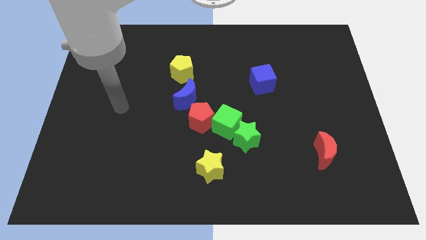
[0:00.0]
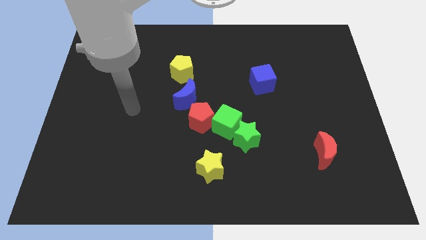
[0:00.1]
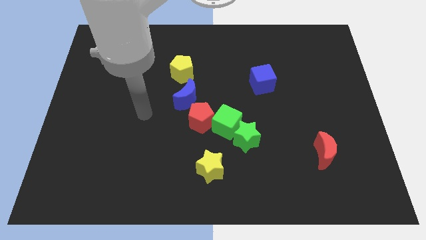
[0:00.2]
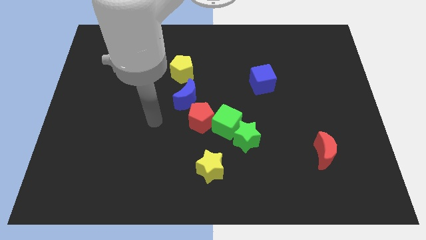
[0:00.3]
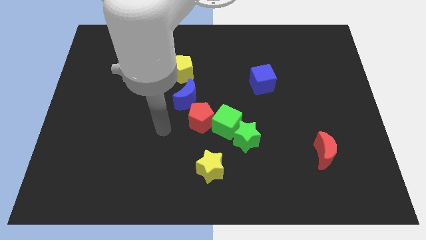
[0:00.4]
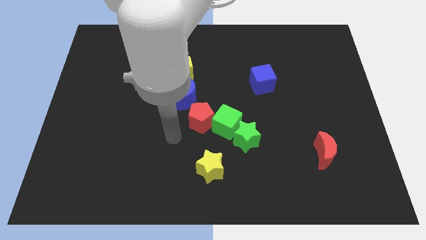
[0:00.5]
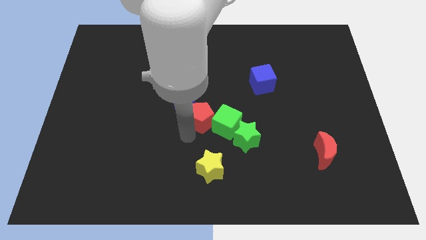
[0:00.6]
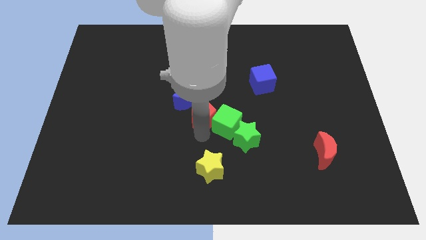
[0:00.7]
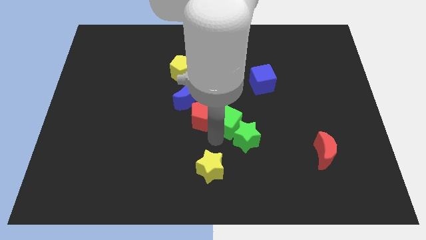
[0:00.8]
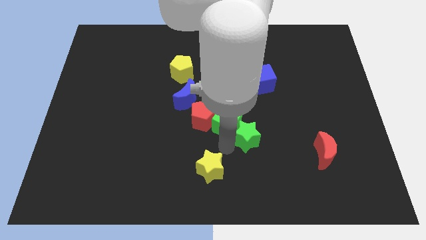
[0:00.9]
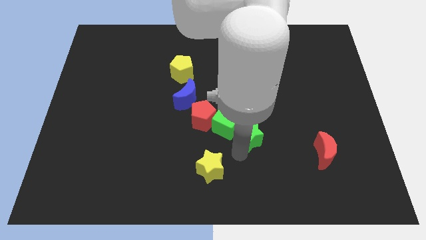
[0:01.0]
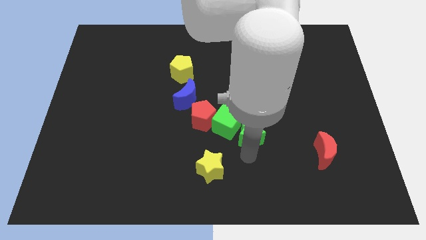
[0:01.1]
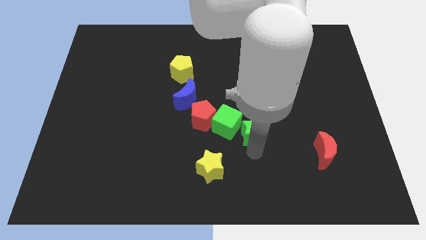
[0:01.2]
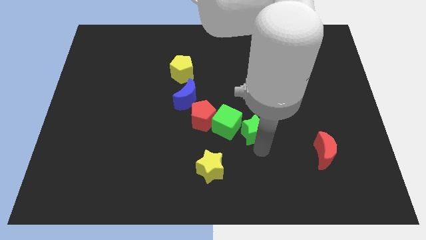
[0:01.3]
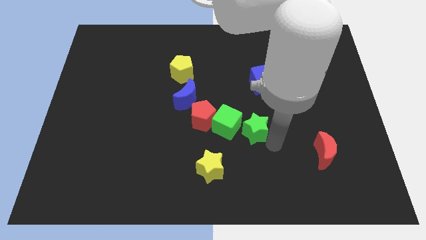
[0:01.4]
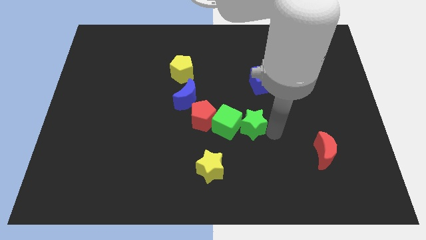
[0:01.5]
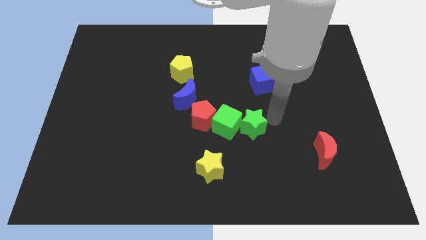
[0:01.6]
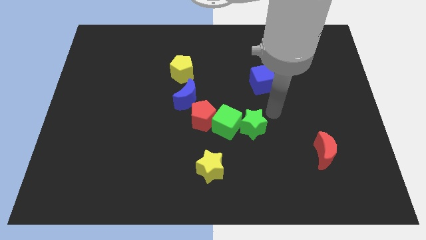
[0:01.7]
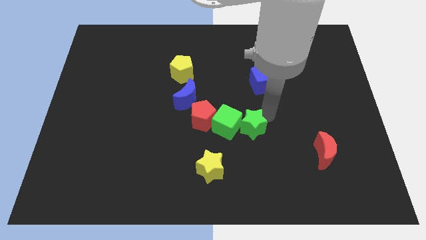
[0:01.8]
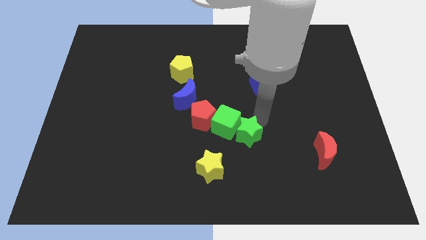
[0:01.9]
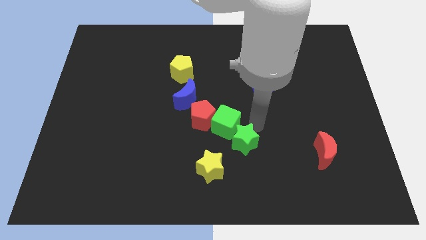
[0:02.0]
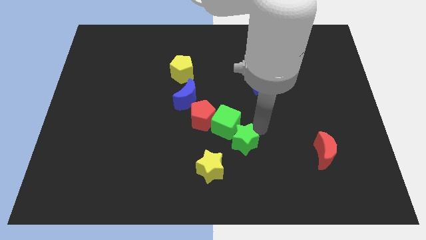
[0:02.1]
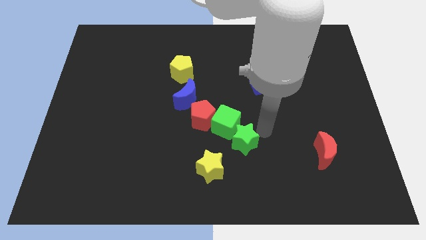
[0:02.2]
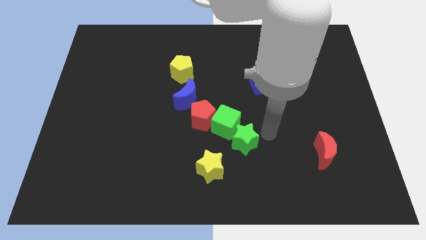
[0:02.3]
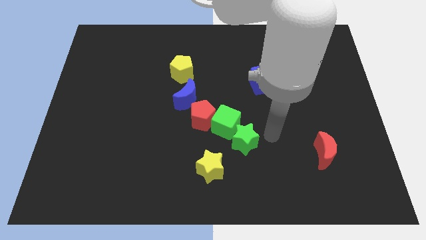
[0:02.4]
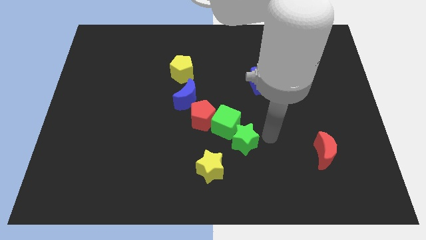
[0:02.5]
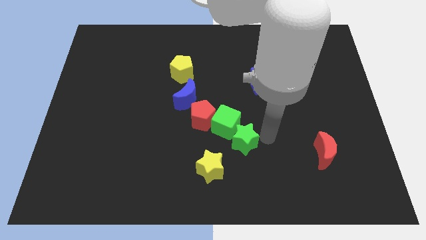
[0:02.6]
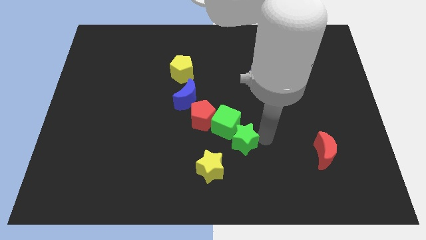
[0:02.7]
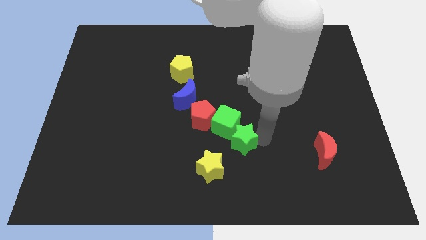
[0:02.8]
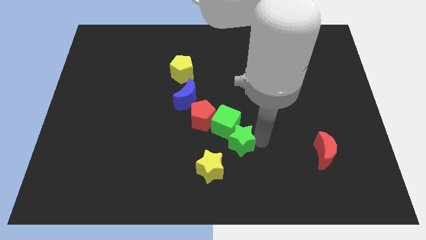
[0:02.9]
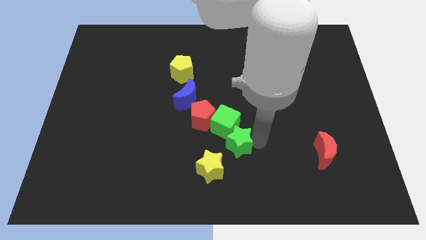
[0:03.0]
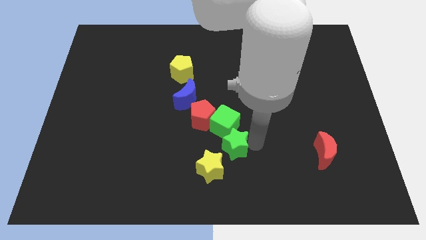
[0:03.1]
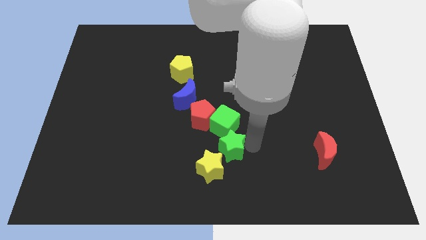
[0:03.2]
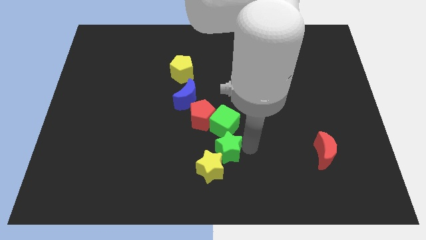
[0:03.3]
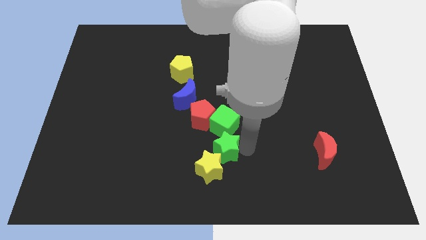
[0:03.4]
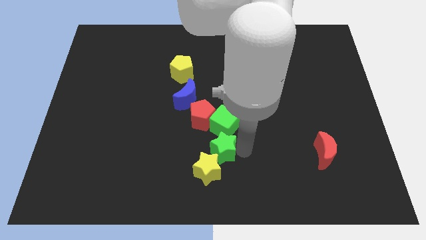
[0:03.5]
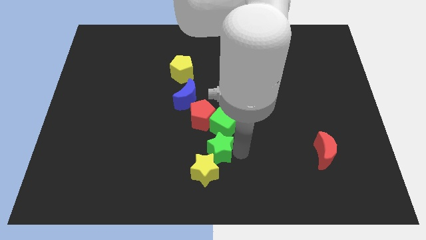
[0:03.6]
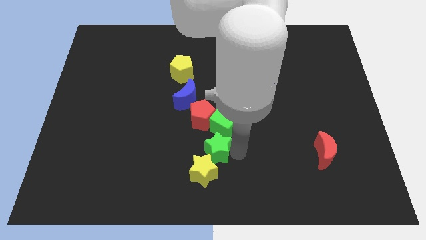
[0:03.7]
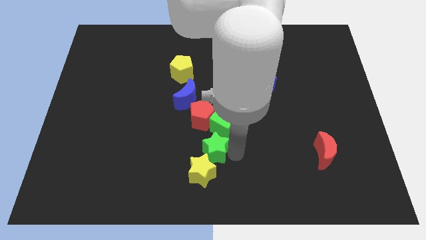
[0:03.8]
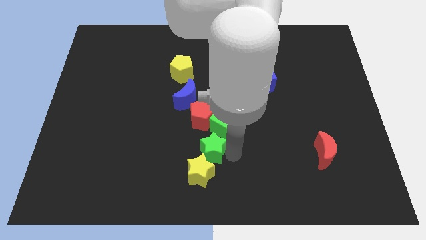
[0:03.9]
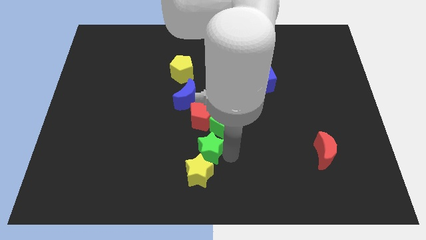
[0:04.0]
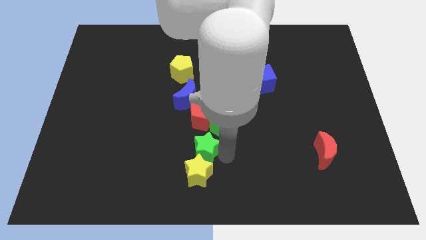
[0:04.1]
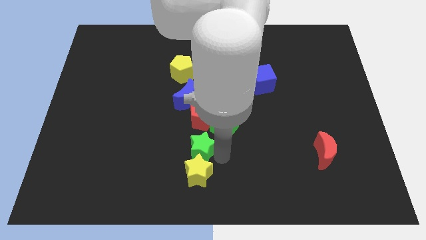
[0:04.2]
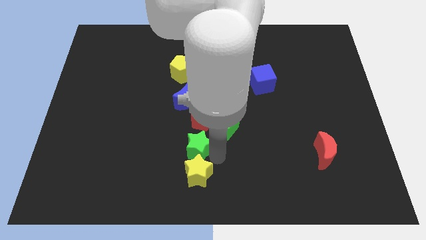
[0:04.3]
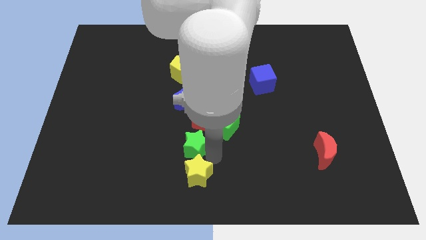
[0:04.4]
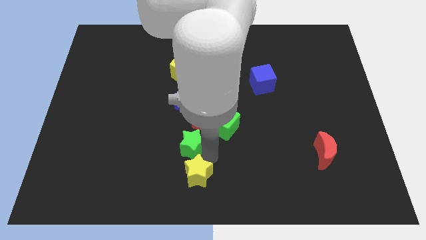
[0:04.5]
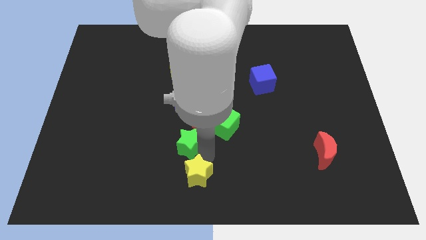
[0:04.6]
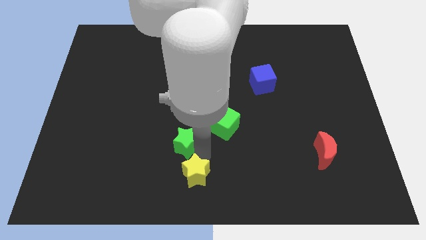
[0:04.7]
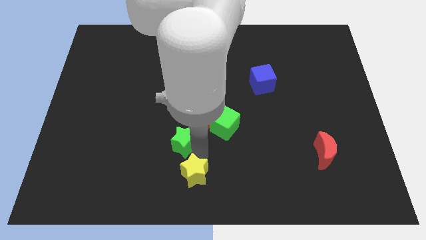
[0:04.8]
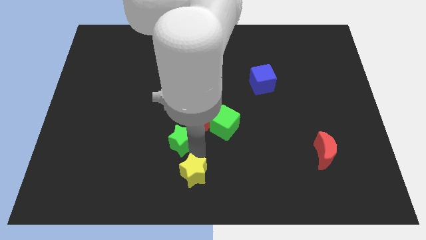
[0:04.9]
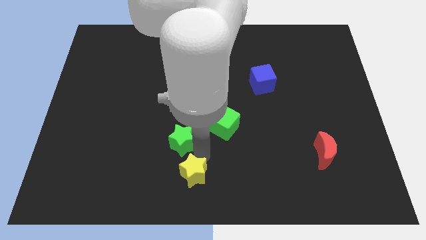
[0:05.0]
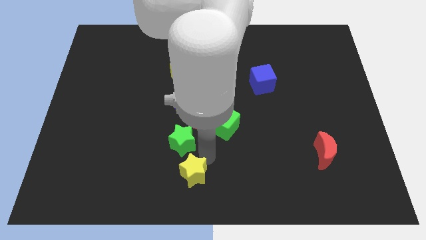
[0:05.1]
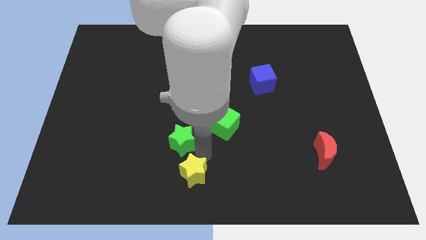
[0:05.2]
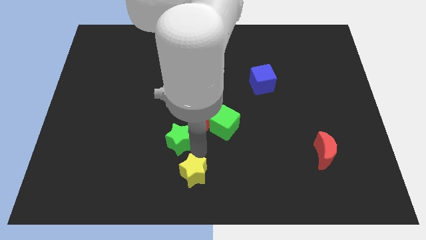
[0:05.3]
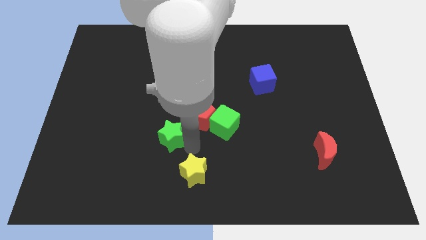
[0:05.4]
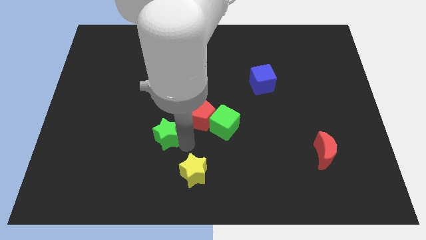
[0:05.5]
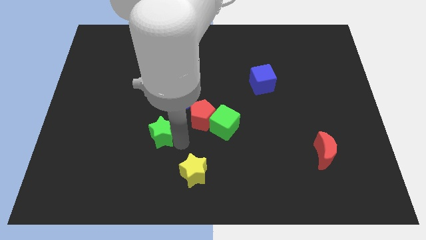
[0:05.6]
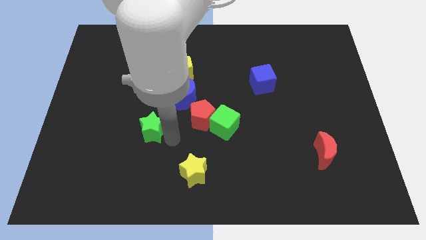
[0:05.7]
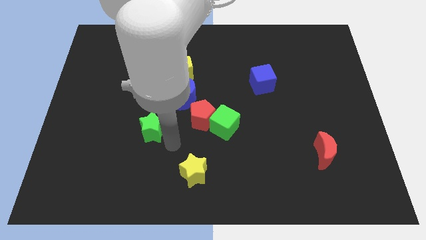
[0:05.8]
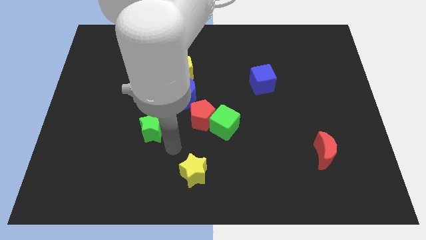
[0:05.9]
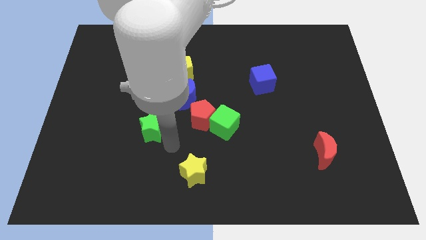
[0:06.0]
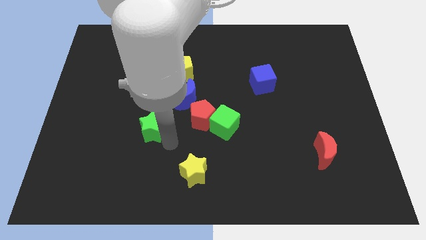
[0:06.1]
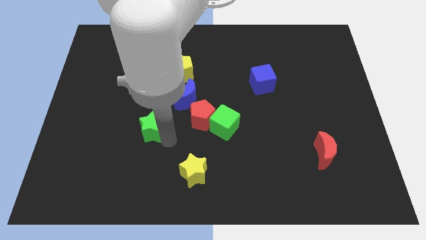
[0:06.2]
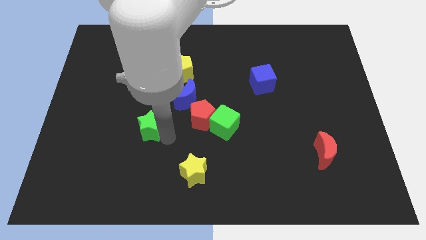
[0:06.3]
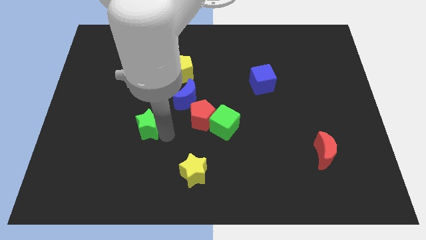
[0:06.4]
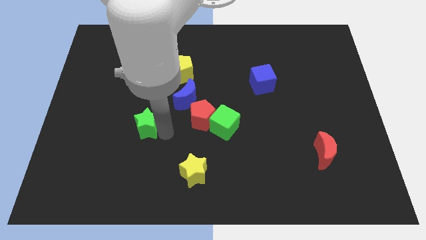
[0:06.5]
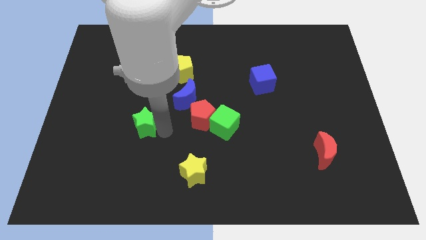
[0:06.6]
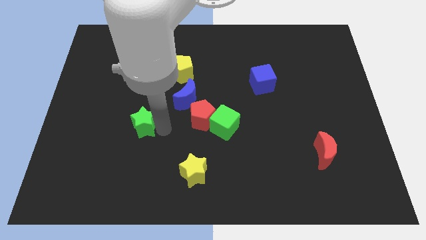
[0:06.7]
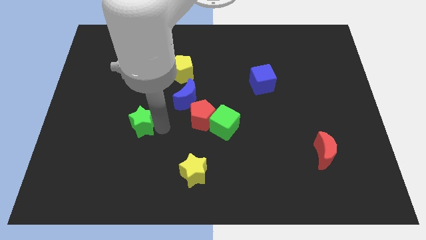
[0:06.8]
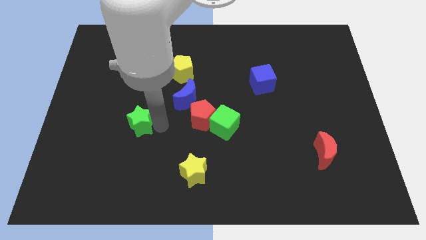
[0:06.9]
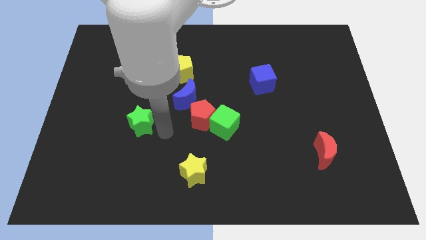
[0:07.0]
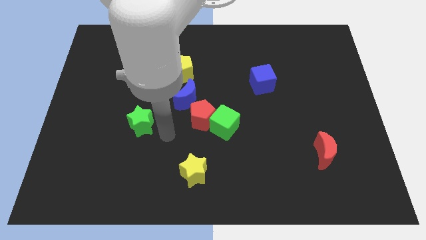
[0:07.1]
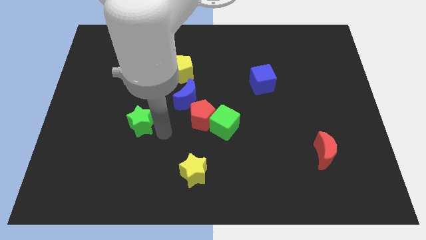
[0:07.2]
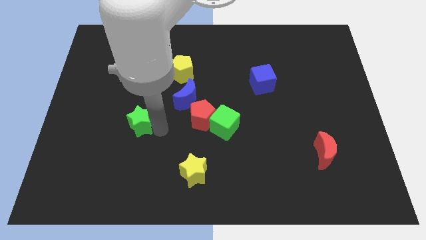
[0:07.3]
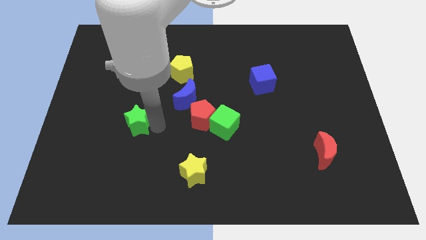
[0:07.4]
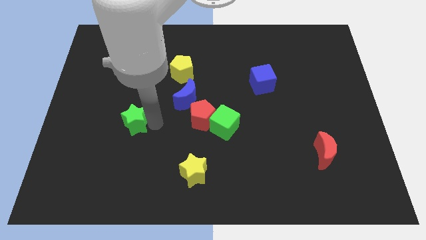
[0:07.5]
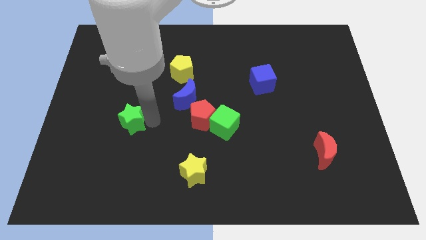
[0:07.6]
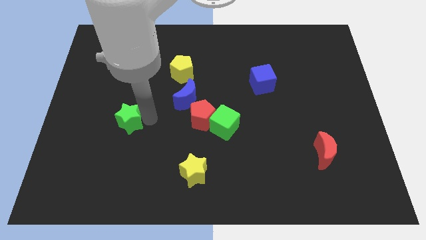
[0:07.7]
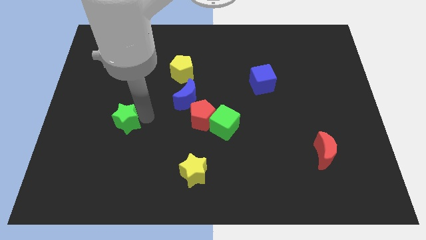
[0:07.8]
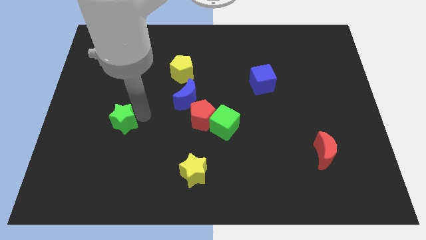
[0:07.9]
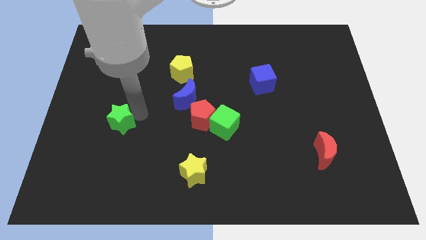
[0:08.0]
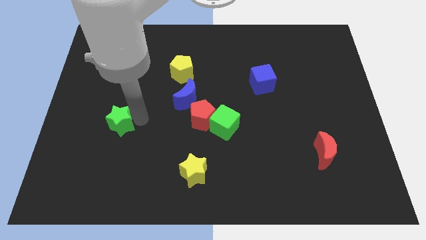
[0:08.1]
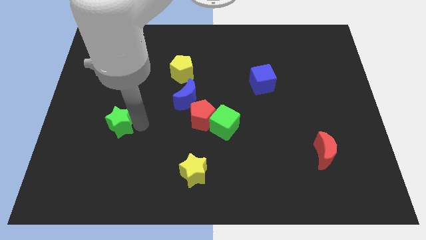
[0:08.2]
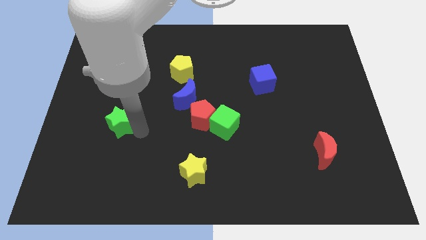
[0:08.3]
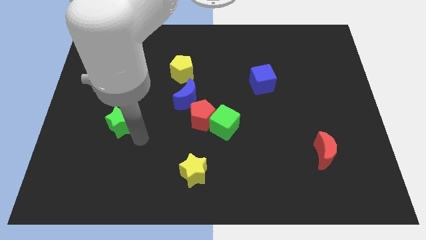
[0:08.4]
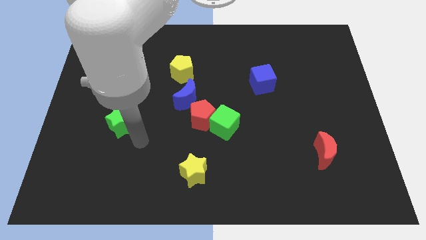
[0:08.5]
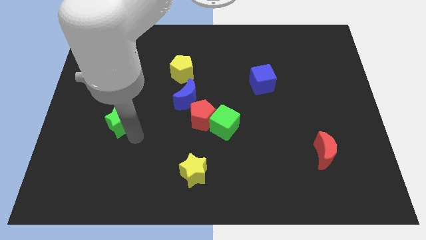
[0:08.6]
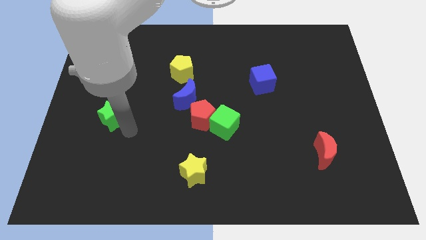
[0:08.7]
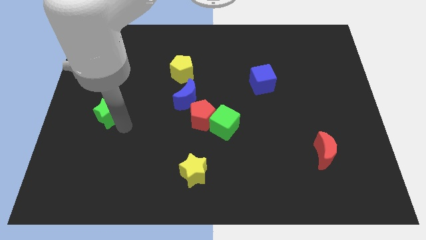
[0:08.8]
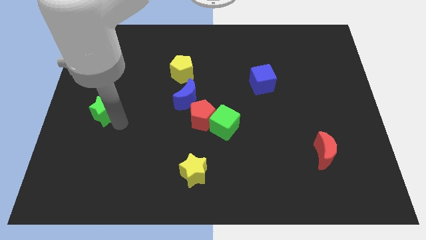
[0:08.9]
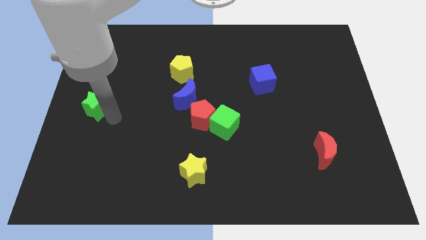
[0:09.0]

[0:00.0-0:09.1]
put the green star to the left side of the board
